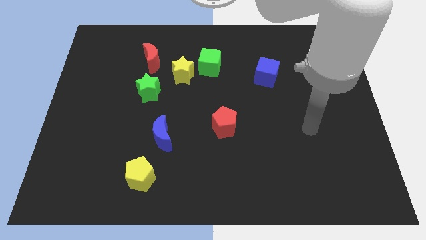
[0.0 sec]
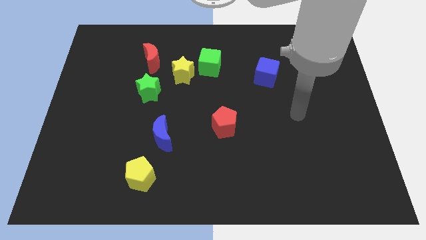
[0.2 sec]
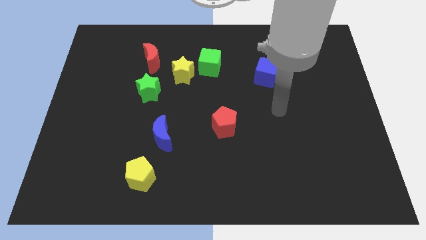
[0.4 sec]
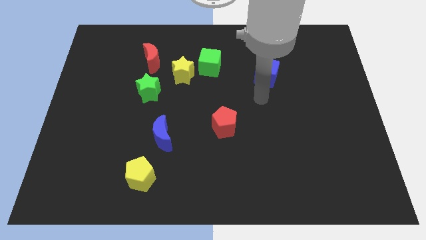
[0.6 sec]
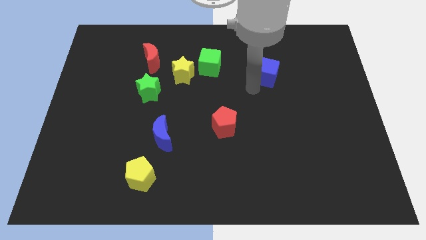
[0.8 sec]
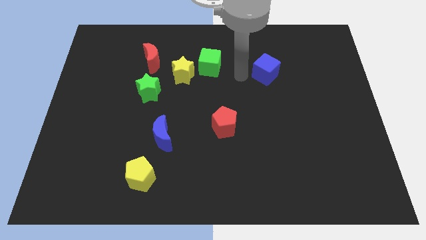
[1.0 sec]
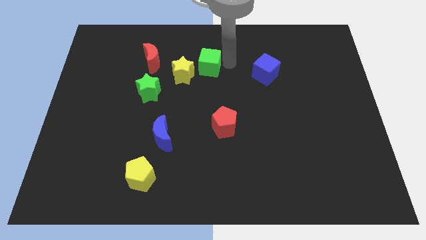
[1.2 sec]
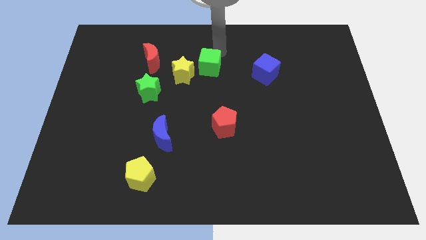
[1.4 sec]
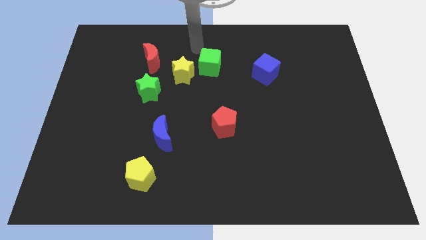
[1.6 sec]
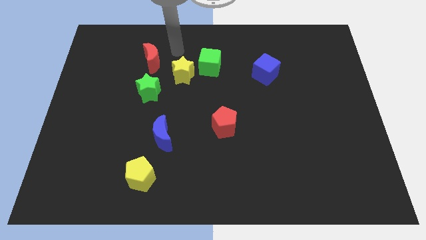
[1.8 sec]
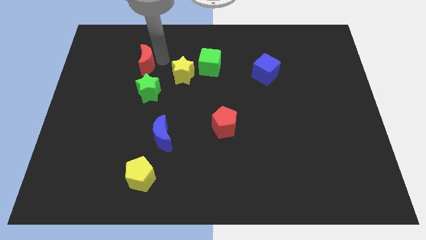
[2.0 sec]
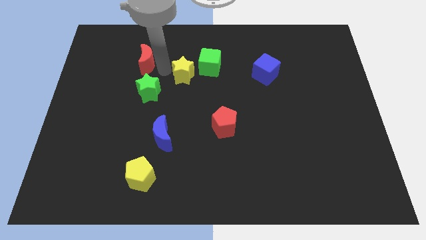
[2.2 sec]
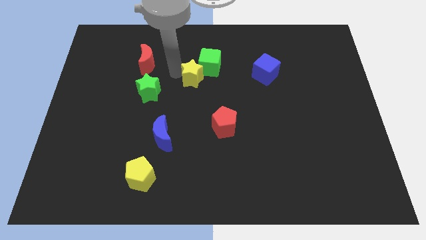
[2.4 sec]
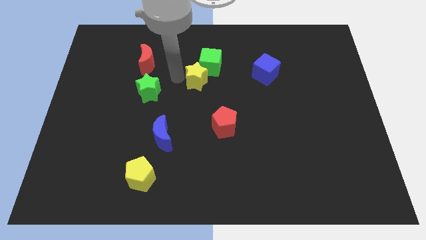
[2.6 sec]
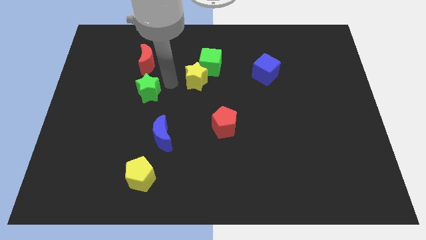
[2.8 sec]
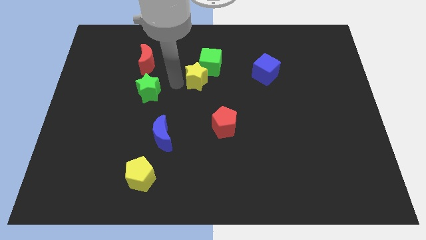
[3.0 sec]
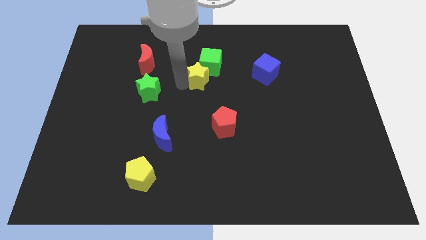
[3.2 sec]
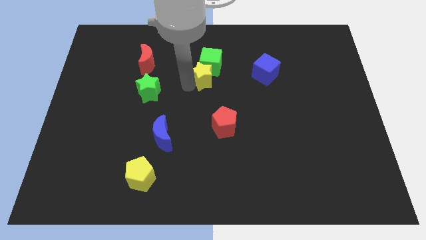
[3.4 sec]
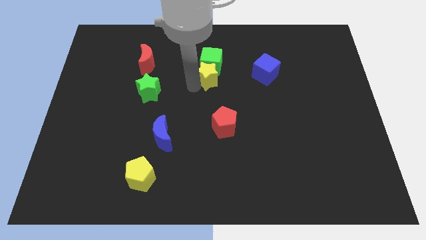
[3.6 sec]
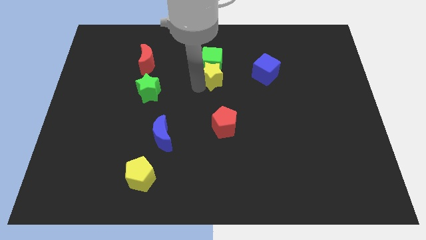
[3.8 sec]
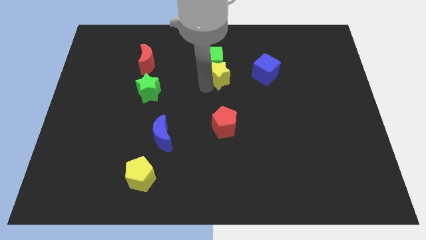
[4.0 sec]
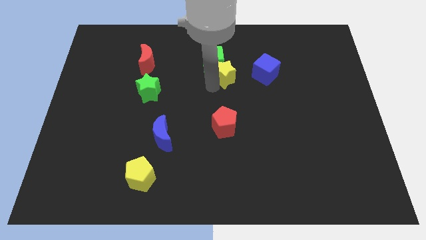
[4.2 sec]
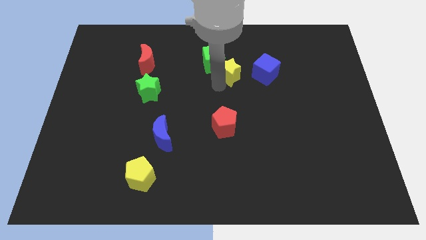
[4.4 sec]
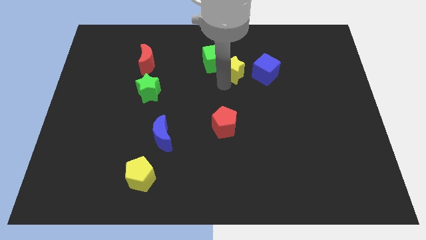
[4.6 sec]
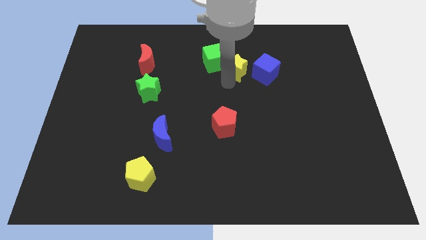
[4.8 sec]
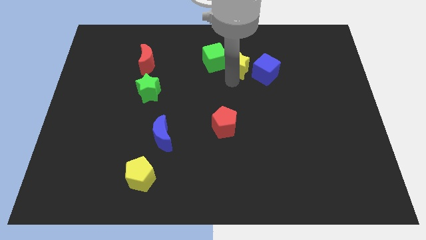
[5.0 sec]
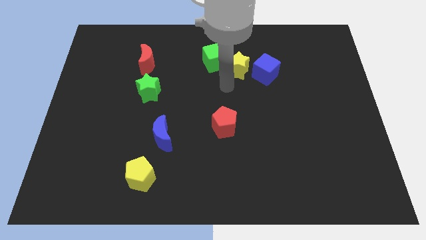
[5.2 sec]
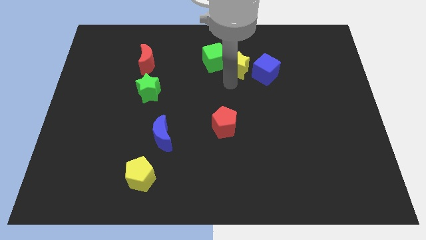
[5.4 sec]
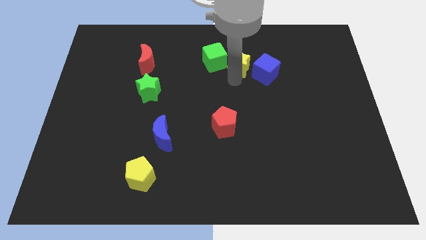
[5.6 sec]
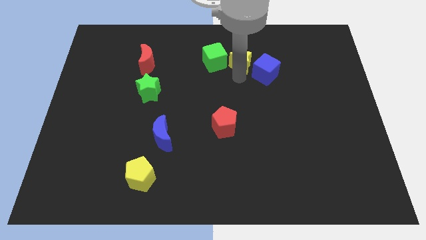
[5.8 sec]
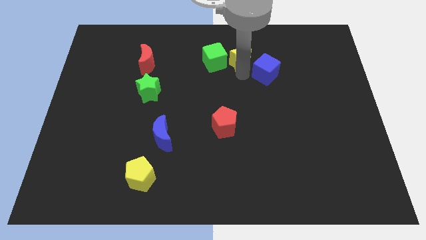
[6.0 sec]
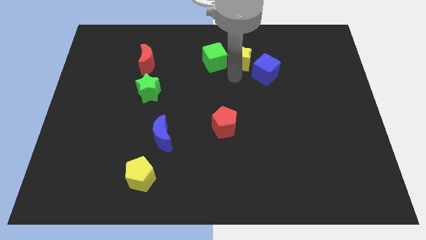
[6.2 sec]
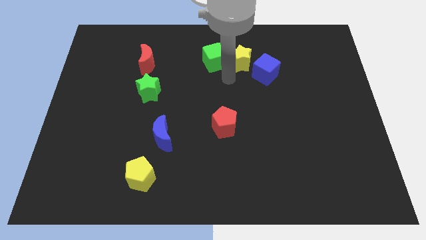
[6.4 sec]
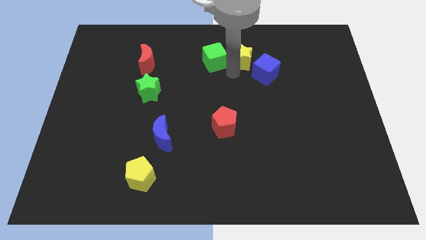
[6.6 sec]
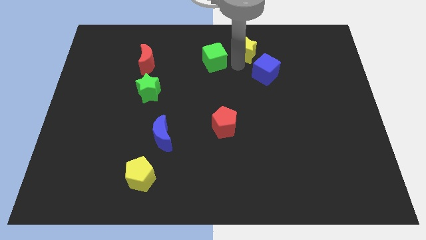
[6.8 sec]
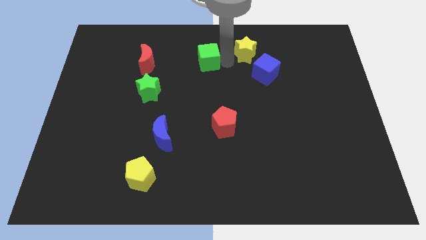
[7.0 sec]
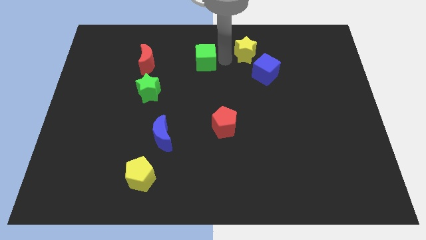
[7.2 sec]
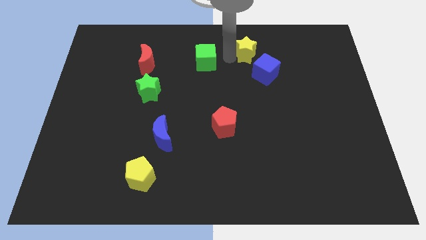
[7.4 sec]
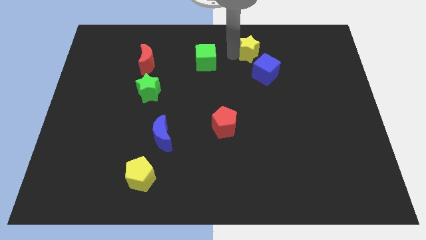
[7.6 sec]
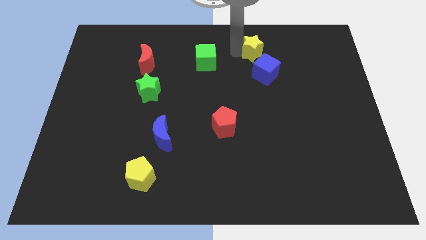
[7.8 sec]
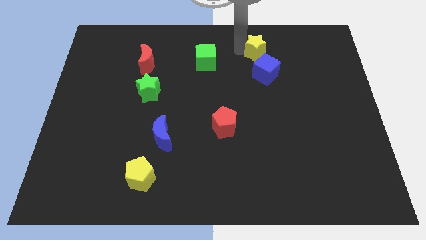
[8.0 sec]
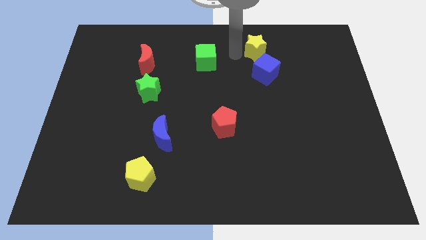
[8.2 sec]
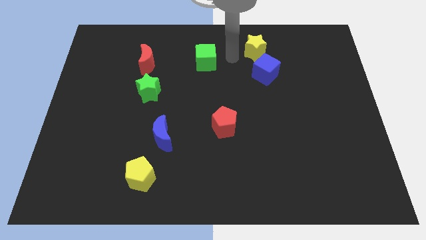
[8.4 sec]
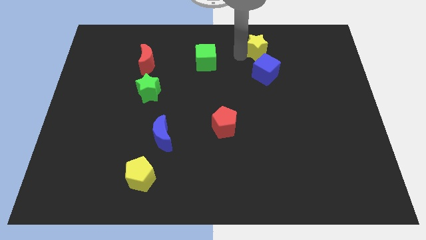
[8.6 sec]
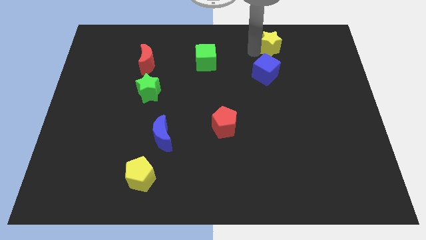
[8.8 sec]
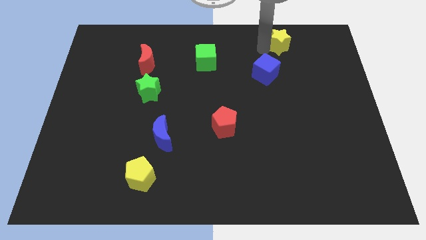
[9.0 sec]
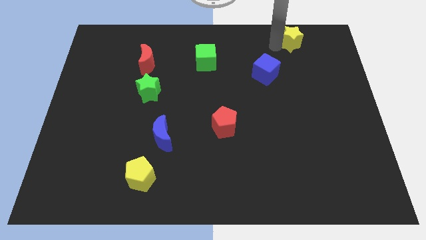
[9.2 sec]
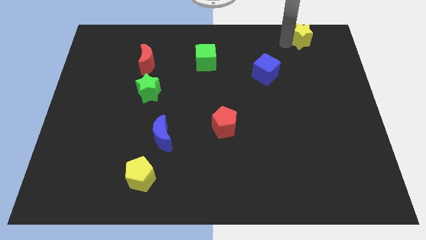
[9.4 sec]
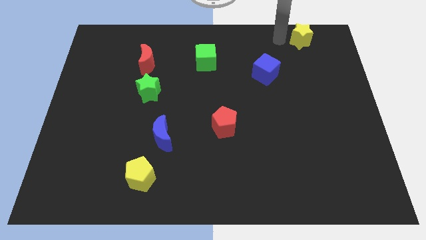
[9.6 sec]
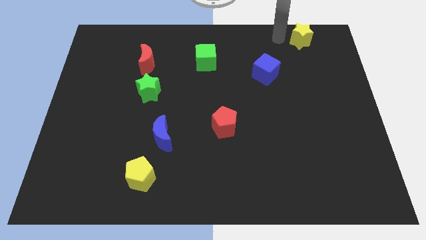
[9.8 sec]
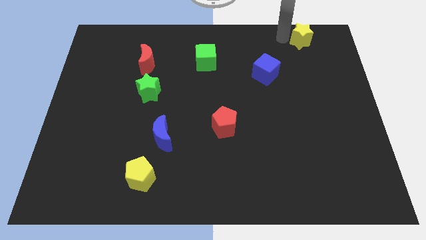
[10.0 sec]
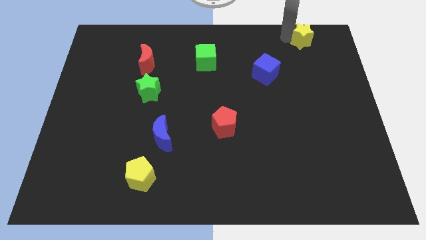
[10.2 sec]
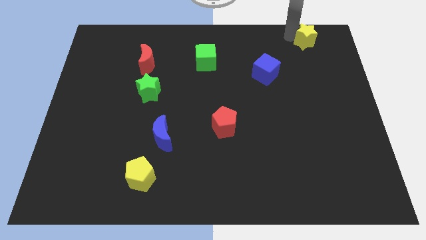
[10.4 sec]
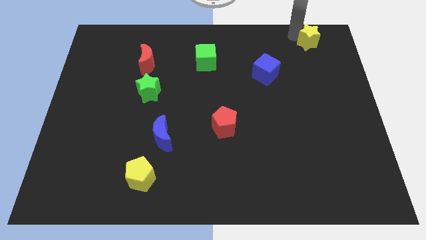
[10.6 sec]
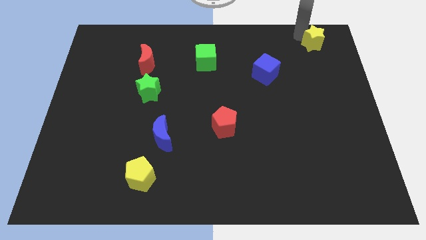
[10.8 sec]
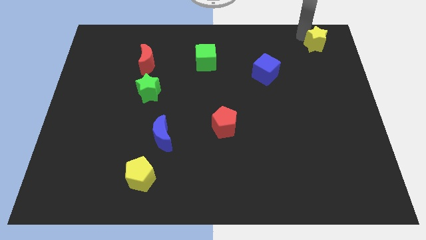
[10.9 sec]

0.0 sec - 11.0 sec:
push the yellow star to the top right of the board

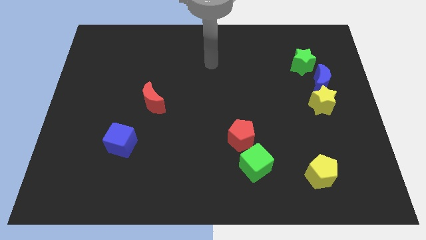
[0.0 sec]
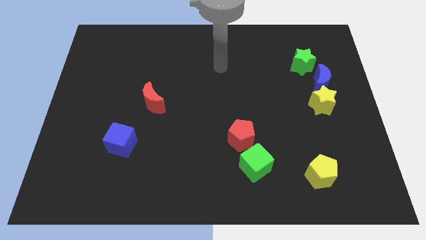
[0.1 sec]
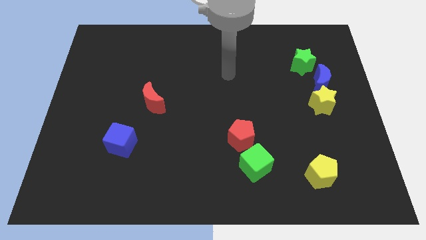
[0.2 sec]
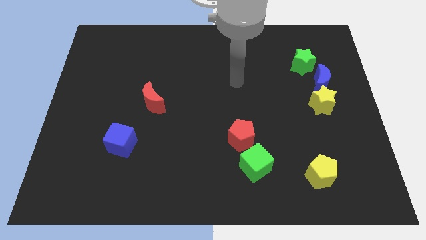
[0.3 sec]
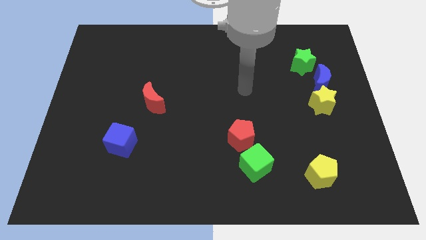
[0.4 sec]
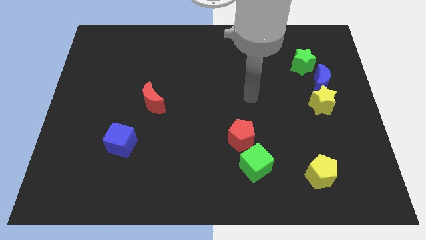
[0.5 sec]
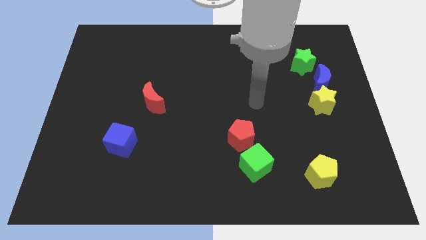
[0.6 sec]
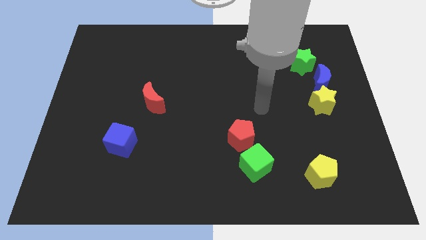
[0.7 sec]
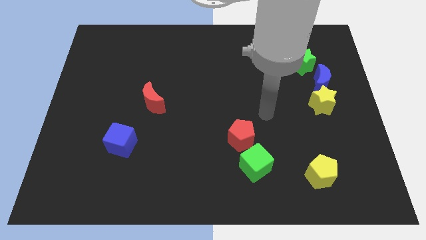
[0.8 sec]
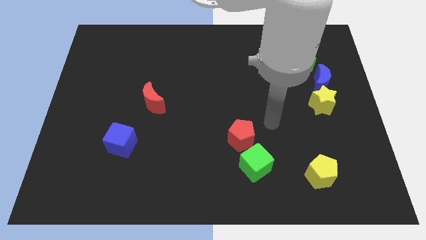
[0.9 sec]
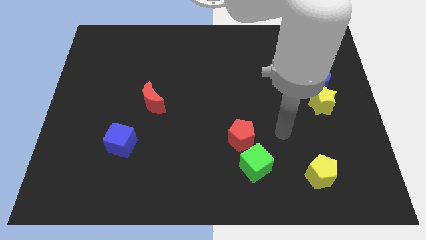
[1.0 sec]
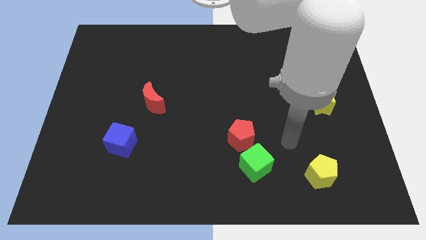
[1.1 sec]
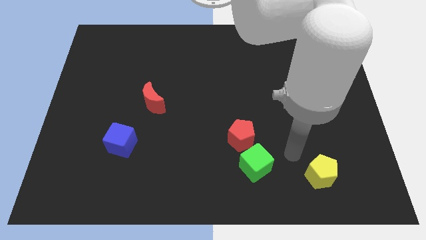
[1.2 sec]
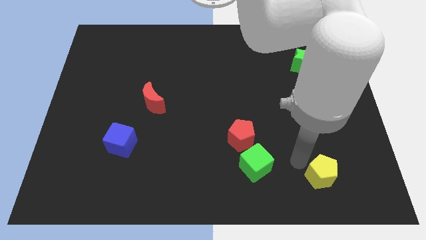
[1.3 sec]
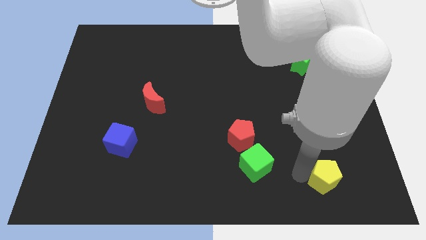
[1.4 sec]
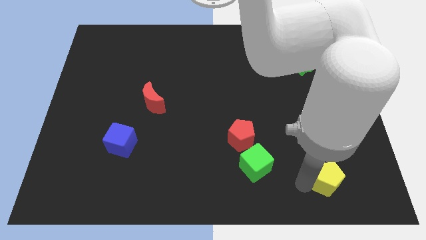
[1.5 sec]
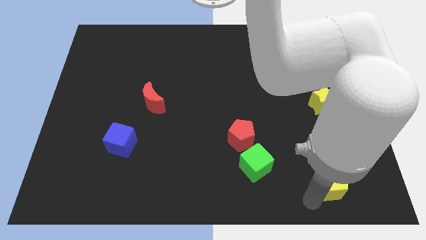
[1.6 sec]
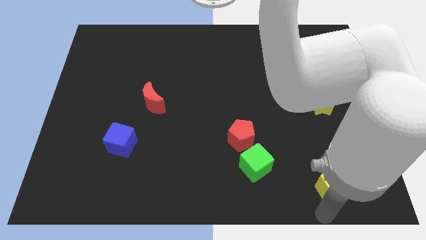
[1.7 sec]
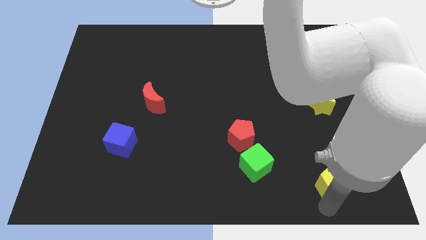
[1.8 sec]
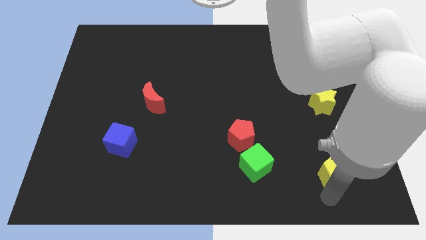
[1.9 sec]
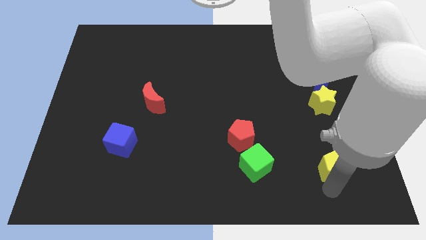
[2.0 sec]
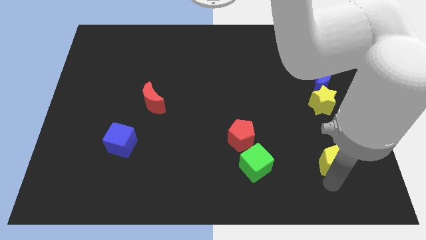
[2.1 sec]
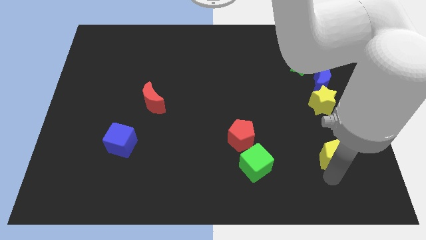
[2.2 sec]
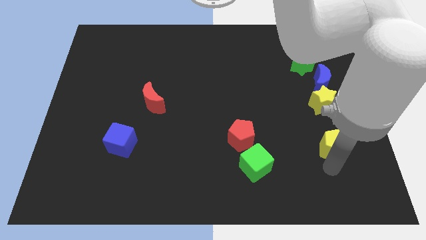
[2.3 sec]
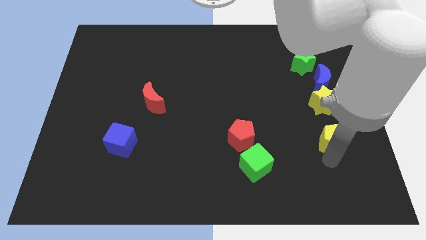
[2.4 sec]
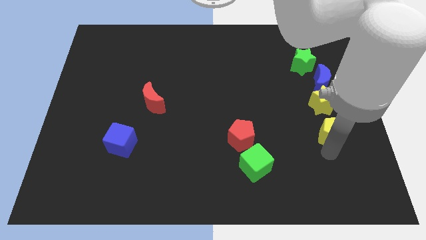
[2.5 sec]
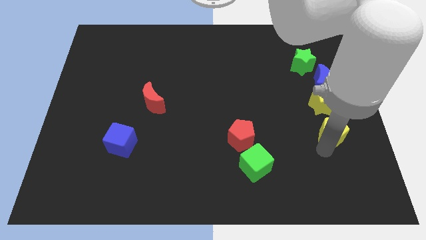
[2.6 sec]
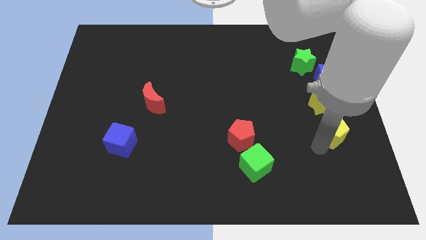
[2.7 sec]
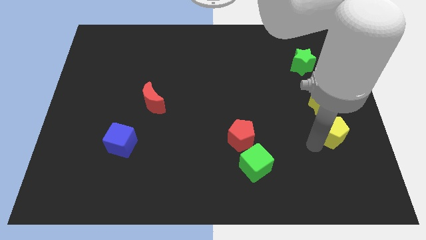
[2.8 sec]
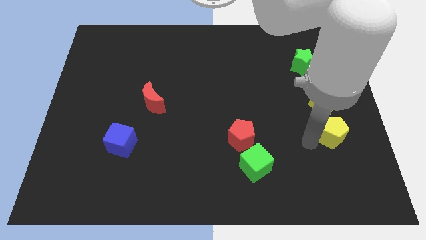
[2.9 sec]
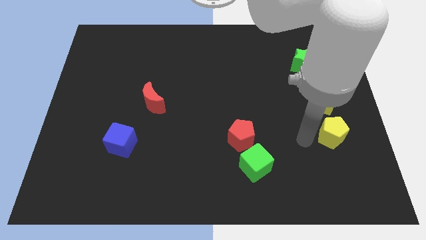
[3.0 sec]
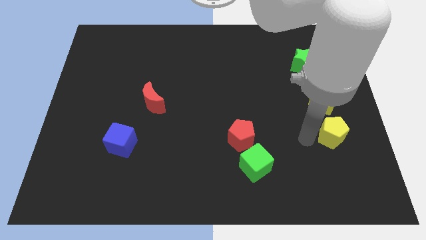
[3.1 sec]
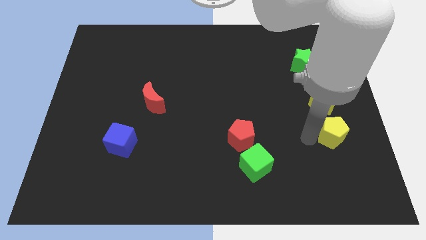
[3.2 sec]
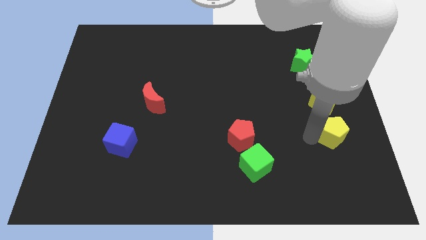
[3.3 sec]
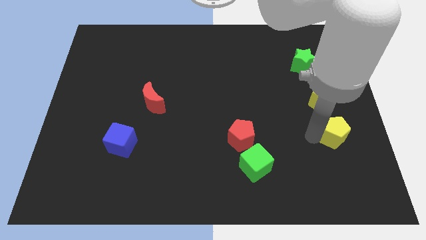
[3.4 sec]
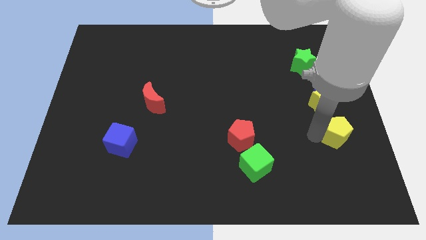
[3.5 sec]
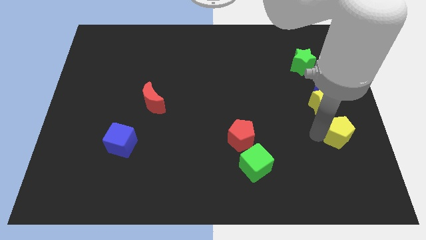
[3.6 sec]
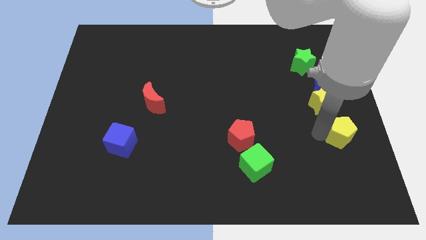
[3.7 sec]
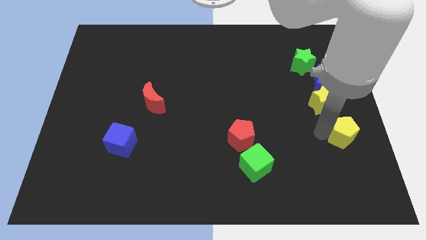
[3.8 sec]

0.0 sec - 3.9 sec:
slide the yellow pentagon to the right side
